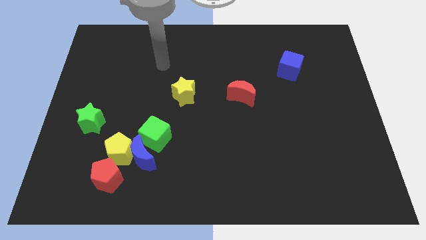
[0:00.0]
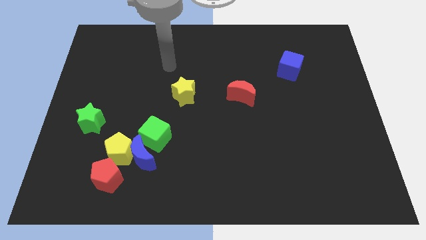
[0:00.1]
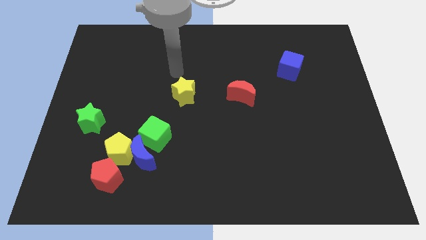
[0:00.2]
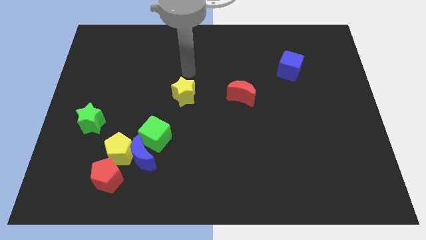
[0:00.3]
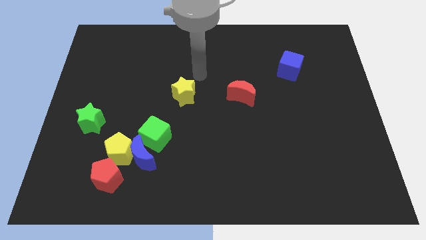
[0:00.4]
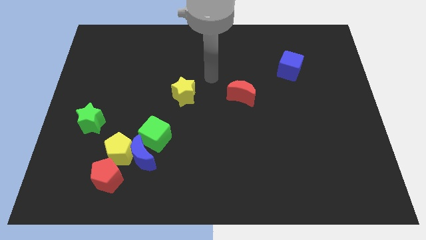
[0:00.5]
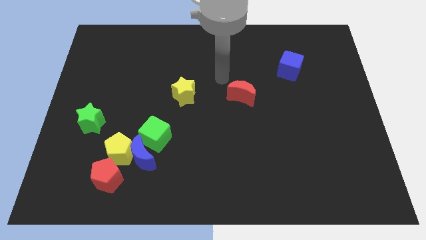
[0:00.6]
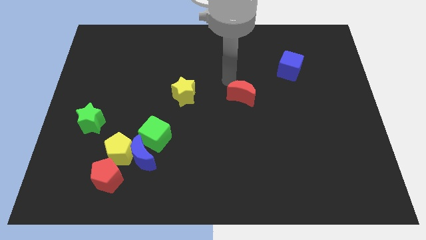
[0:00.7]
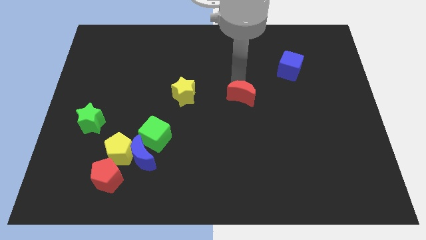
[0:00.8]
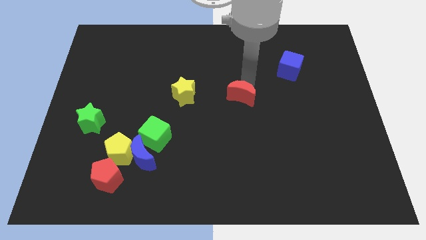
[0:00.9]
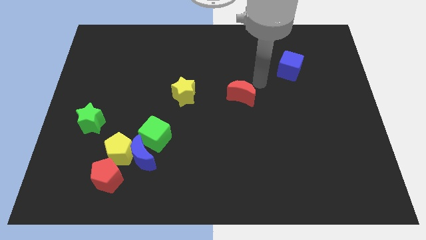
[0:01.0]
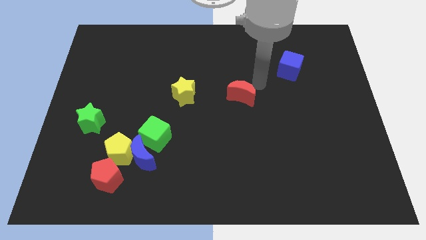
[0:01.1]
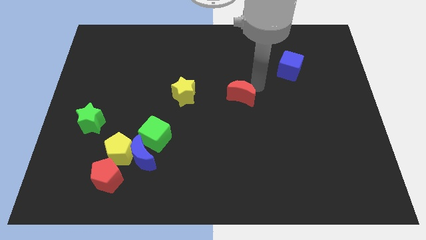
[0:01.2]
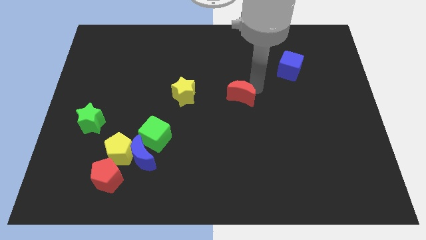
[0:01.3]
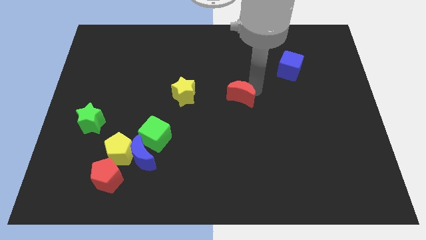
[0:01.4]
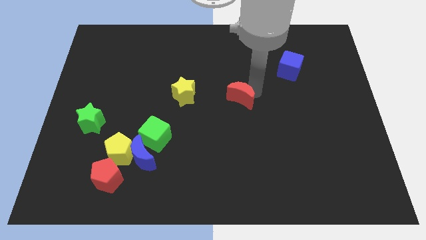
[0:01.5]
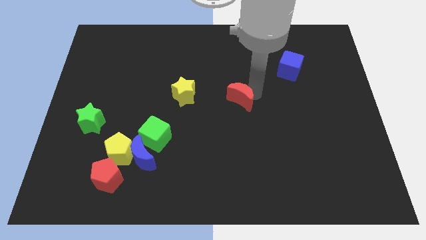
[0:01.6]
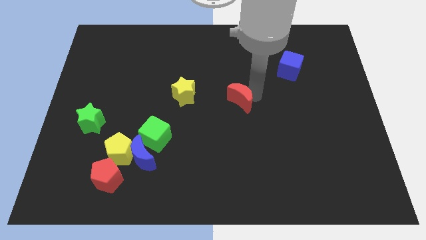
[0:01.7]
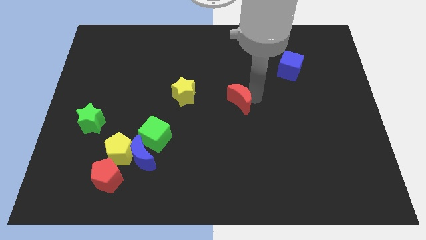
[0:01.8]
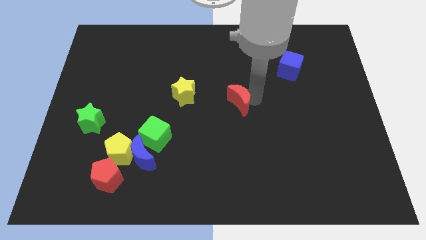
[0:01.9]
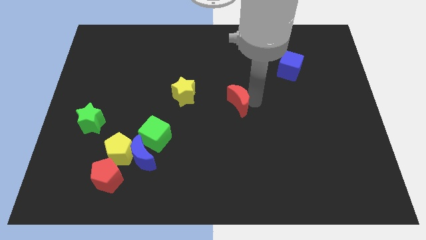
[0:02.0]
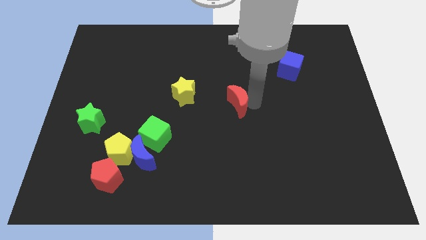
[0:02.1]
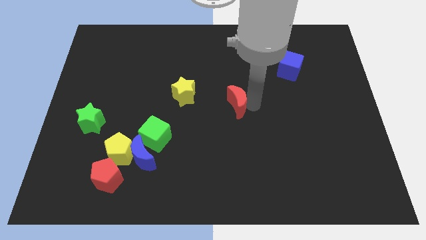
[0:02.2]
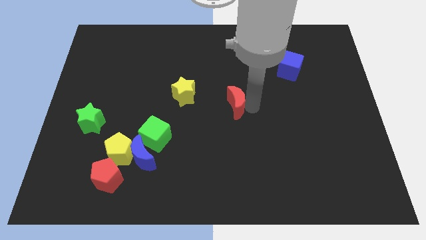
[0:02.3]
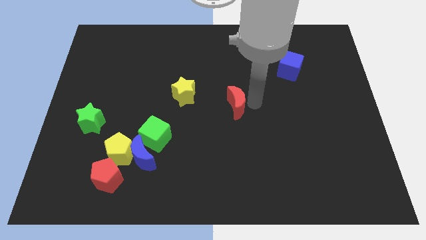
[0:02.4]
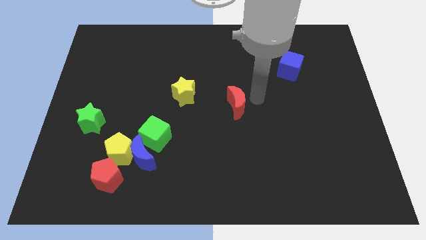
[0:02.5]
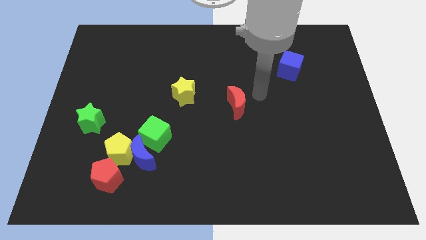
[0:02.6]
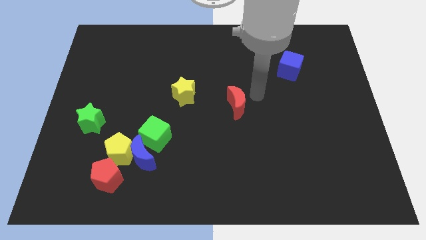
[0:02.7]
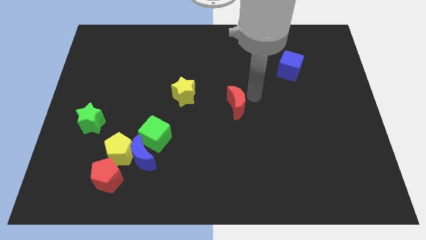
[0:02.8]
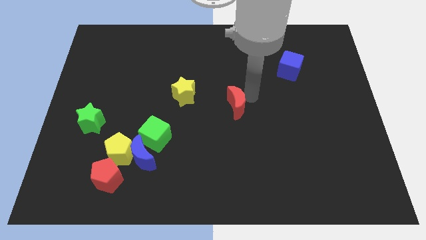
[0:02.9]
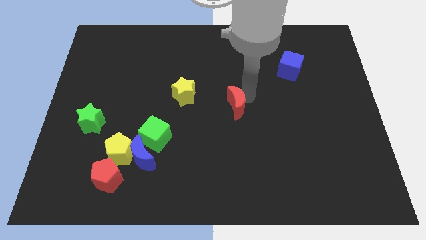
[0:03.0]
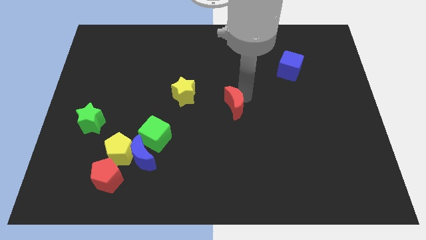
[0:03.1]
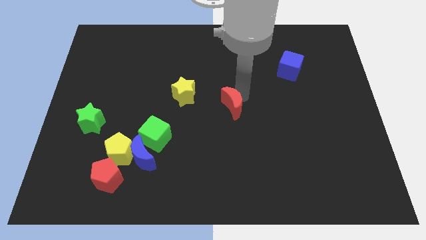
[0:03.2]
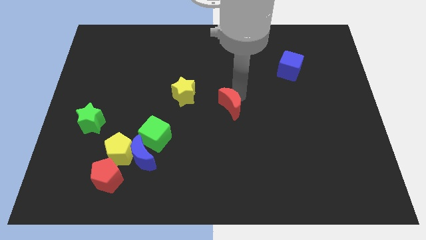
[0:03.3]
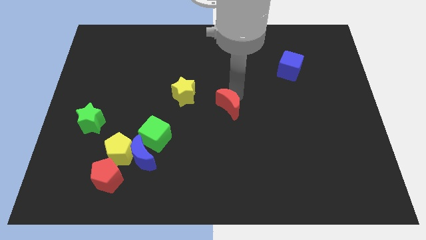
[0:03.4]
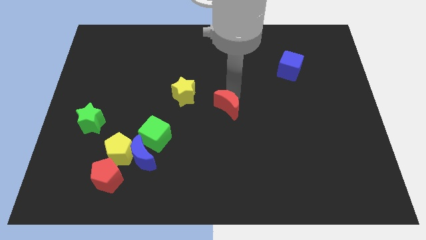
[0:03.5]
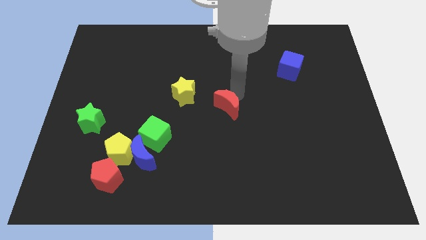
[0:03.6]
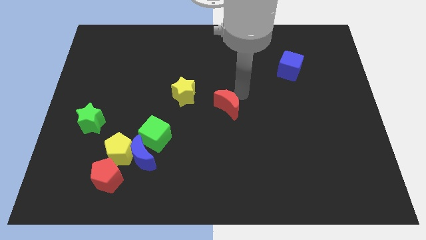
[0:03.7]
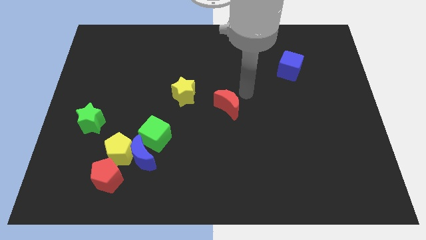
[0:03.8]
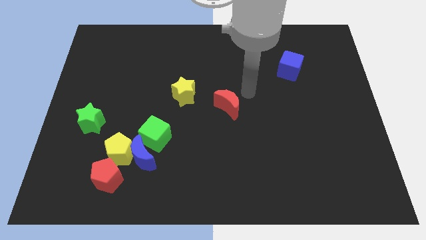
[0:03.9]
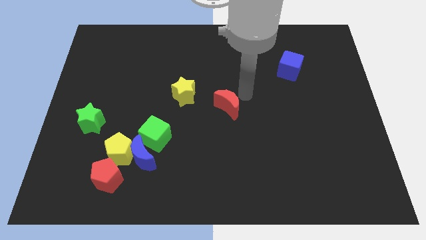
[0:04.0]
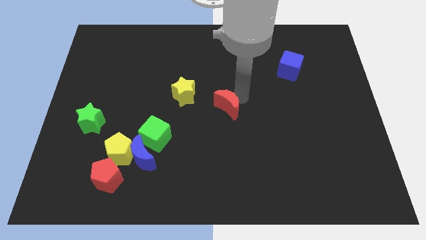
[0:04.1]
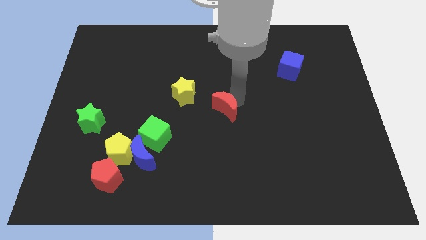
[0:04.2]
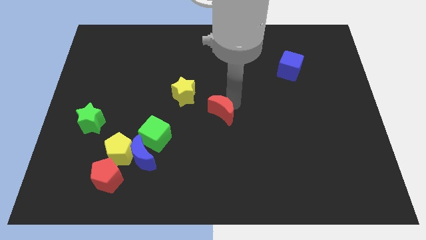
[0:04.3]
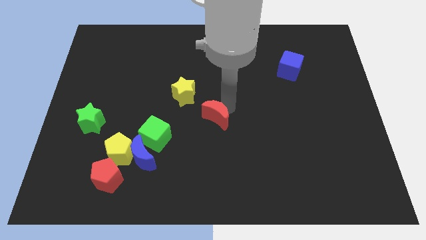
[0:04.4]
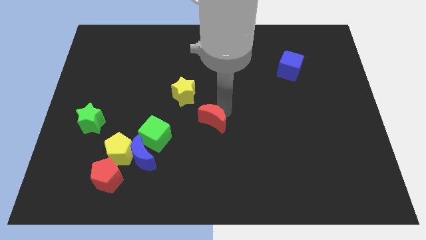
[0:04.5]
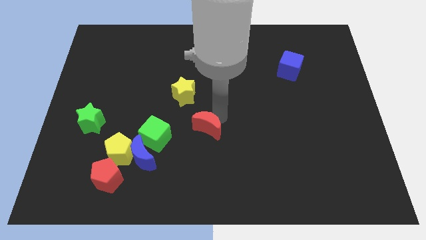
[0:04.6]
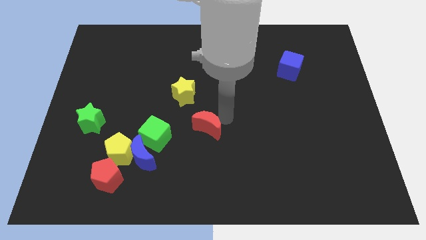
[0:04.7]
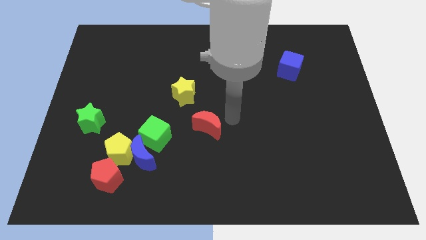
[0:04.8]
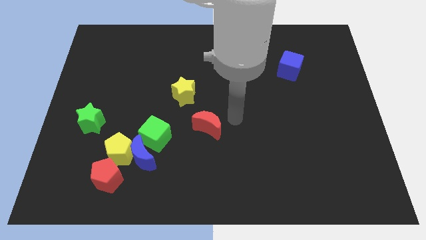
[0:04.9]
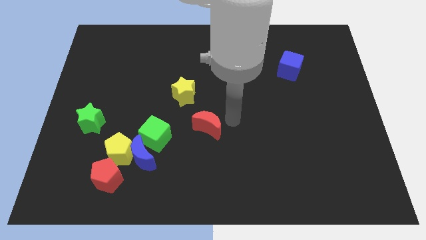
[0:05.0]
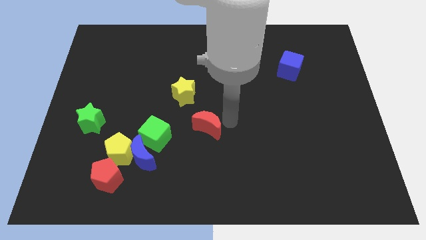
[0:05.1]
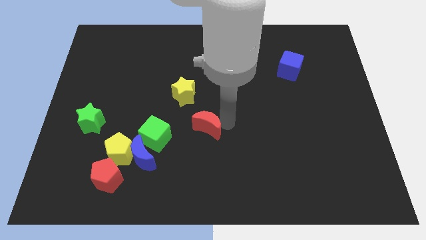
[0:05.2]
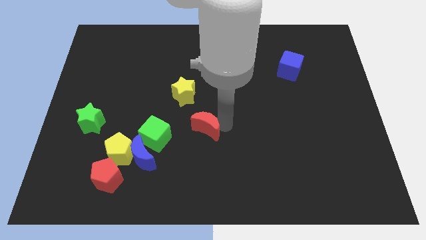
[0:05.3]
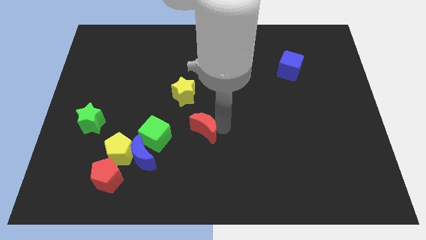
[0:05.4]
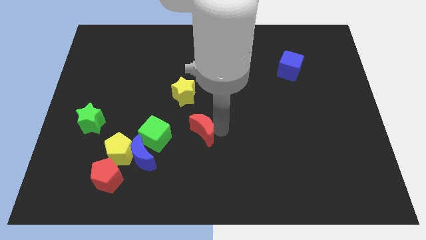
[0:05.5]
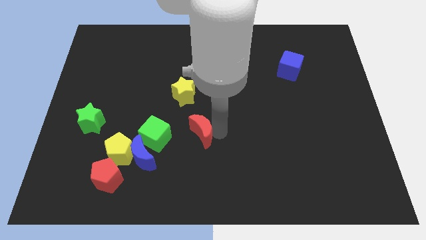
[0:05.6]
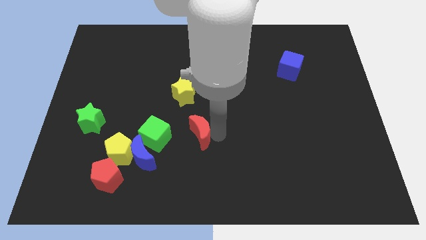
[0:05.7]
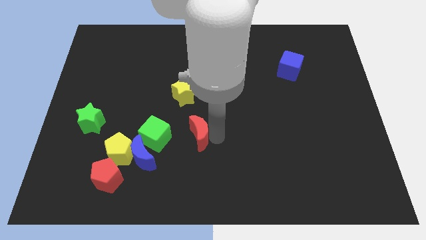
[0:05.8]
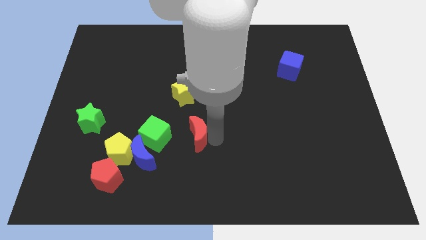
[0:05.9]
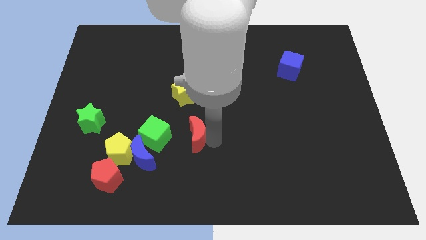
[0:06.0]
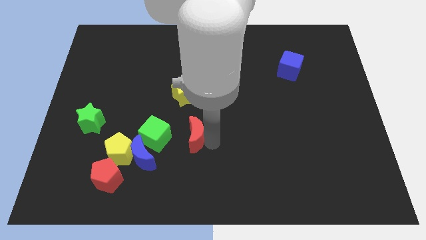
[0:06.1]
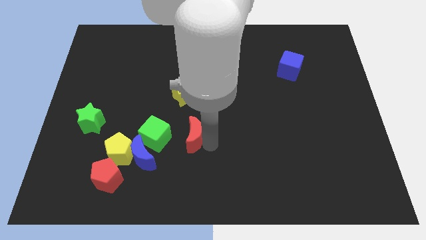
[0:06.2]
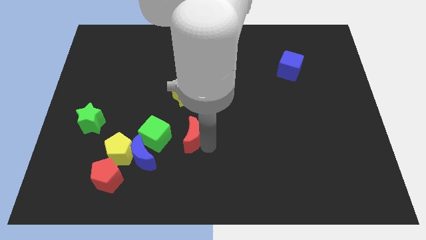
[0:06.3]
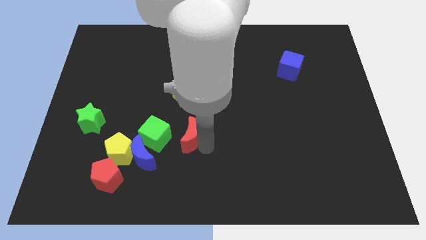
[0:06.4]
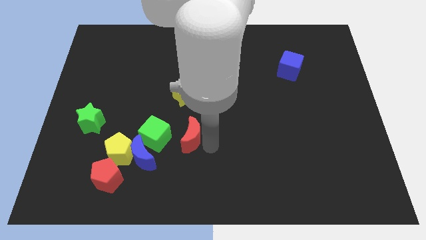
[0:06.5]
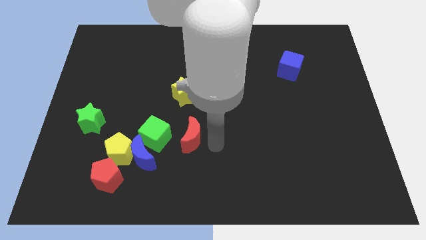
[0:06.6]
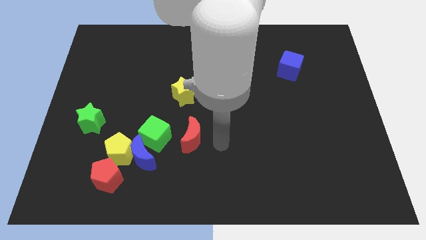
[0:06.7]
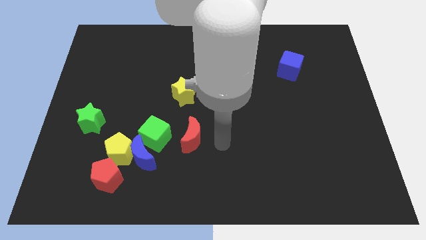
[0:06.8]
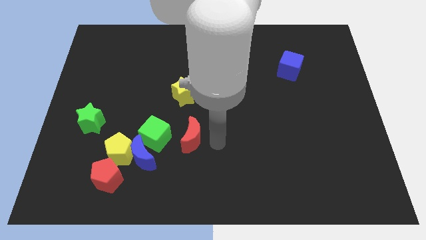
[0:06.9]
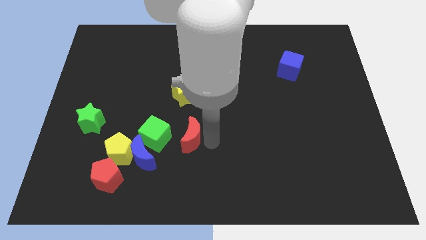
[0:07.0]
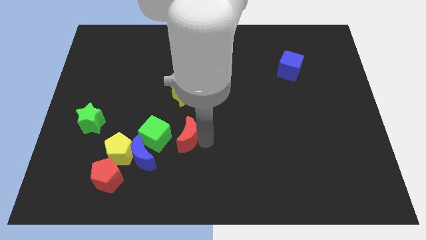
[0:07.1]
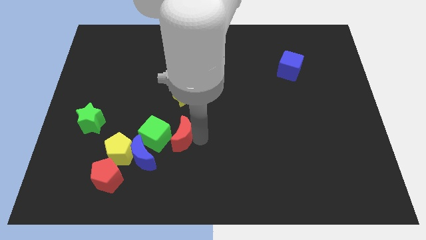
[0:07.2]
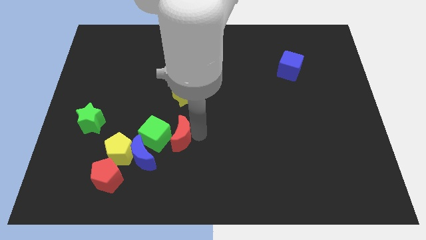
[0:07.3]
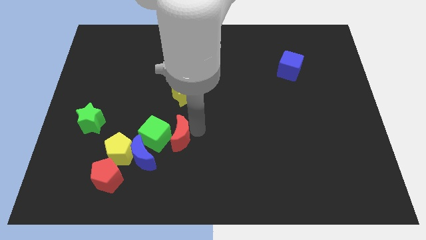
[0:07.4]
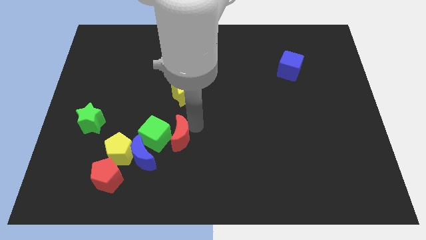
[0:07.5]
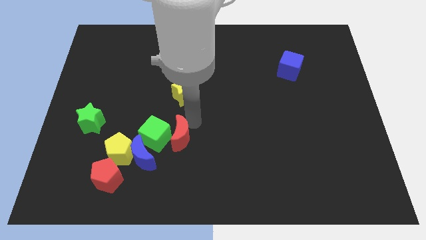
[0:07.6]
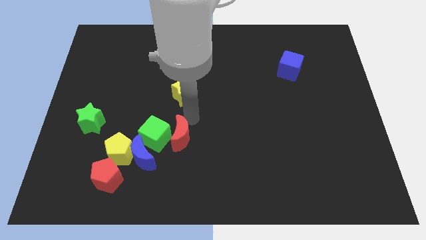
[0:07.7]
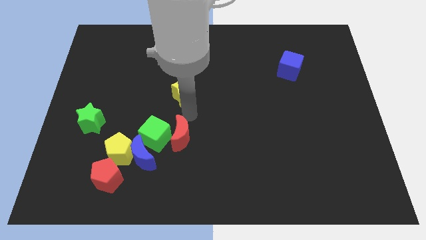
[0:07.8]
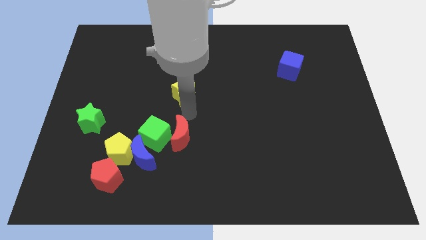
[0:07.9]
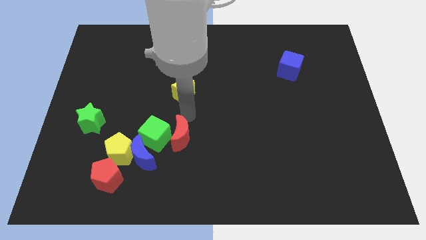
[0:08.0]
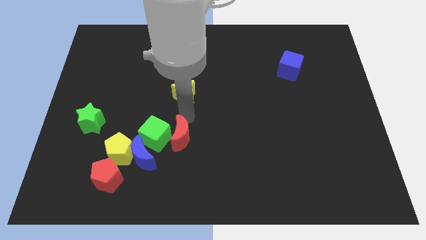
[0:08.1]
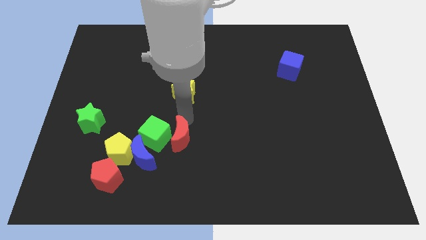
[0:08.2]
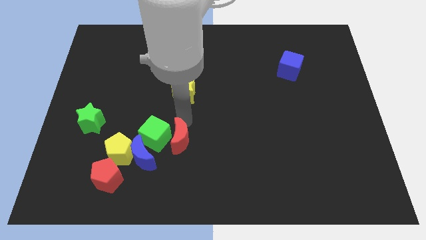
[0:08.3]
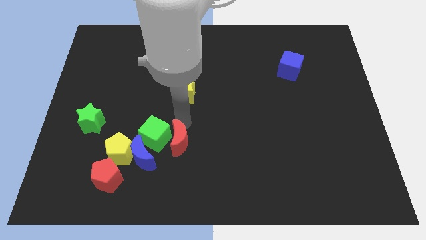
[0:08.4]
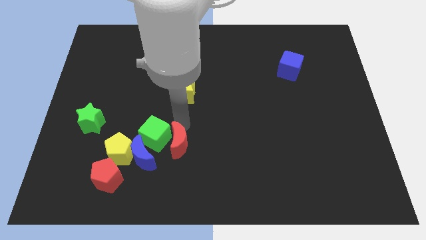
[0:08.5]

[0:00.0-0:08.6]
slide the red moon down and to the left
